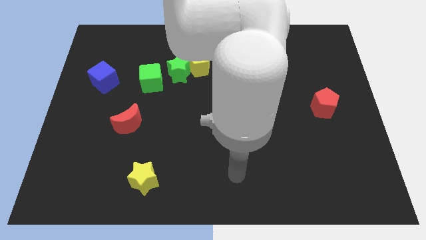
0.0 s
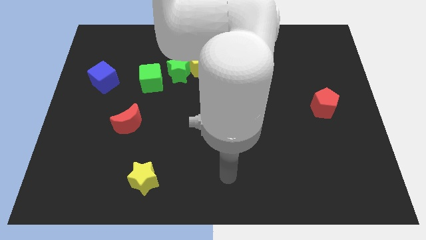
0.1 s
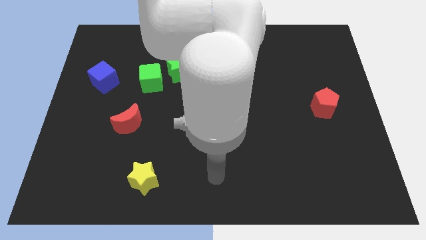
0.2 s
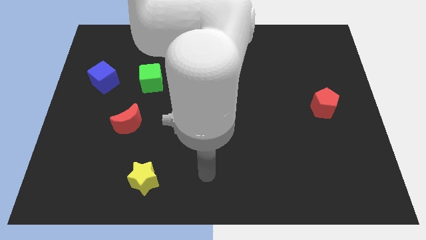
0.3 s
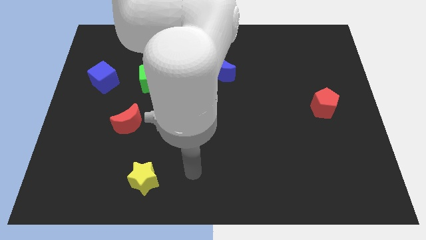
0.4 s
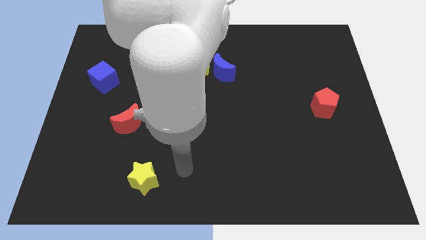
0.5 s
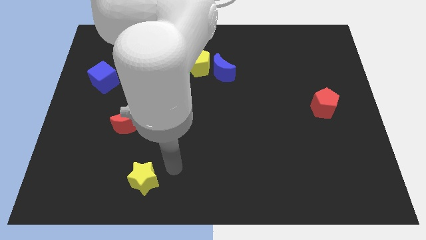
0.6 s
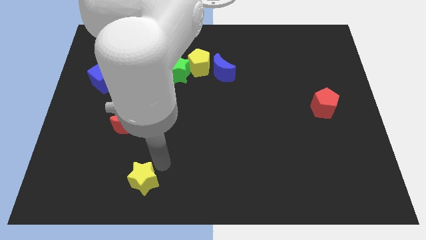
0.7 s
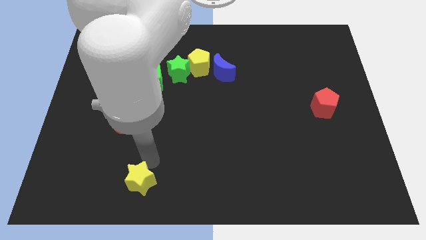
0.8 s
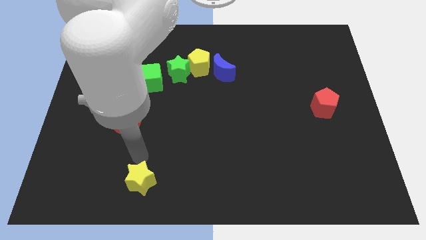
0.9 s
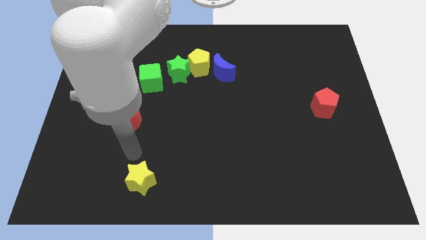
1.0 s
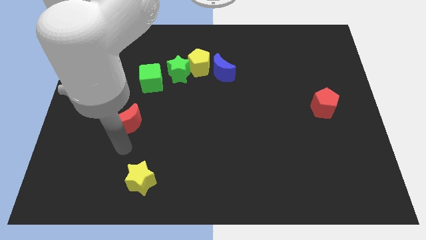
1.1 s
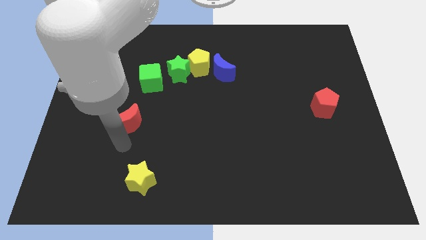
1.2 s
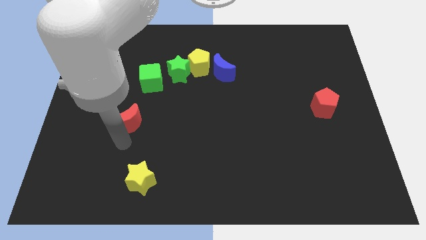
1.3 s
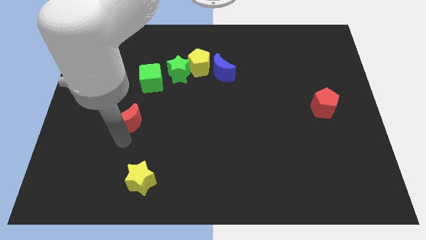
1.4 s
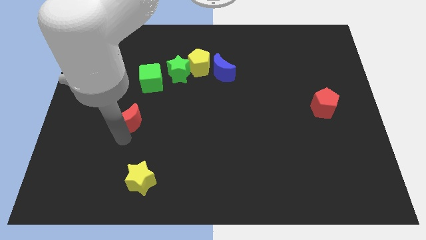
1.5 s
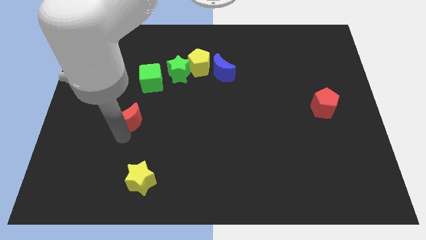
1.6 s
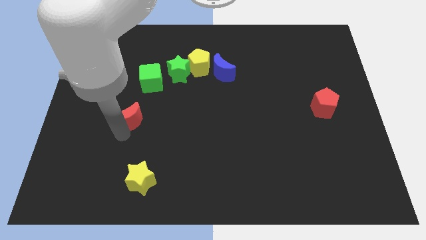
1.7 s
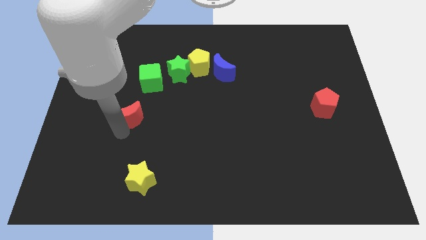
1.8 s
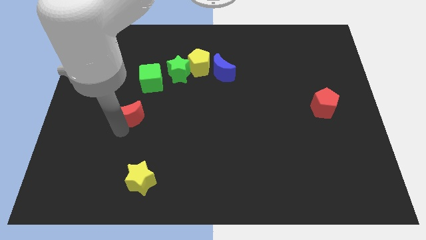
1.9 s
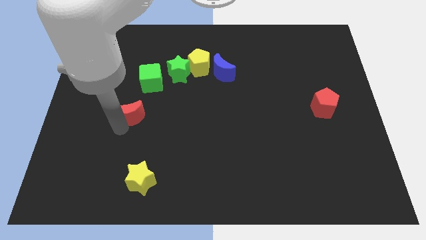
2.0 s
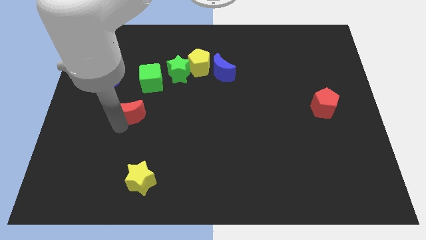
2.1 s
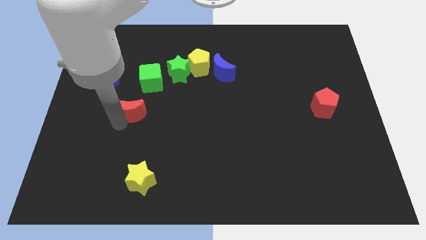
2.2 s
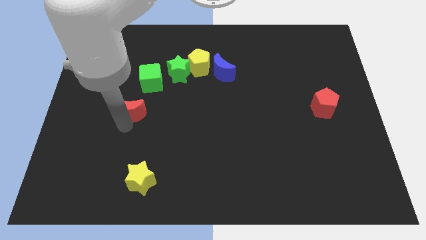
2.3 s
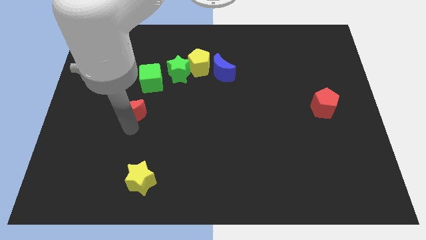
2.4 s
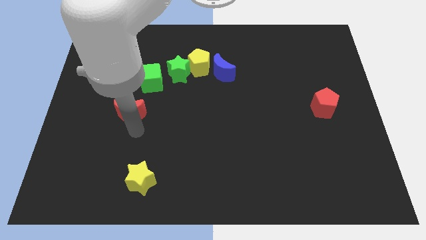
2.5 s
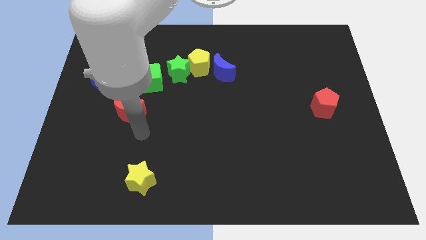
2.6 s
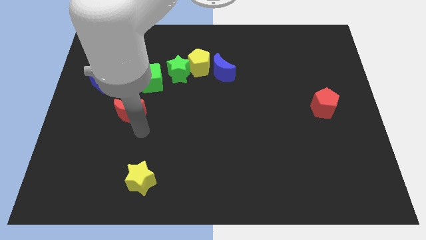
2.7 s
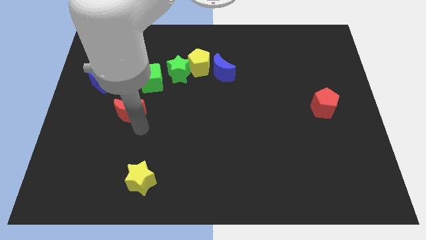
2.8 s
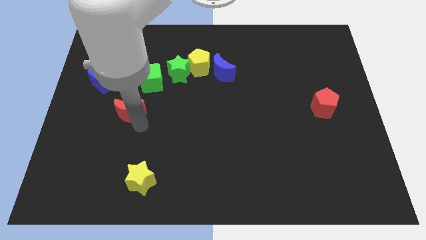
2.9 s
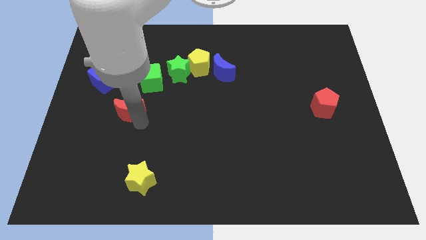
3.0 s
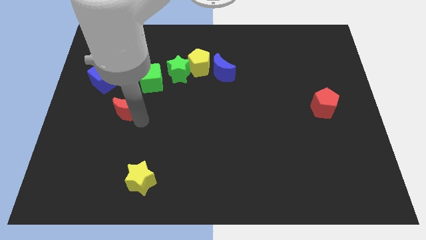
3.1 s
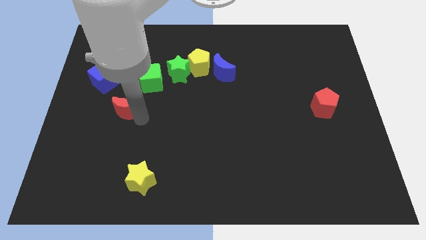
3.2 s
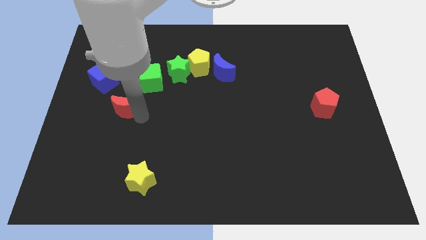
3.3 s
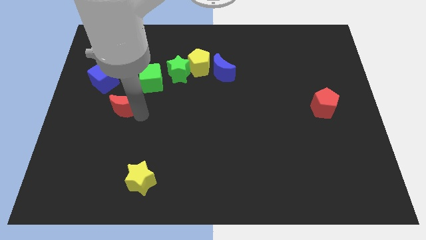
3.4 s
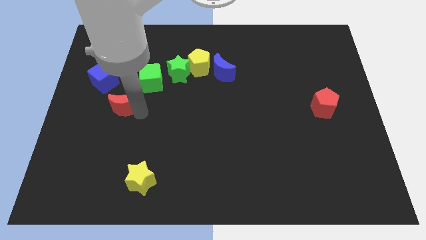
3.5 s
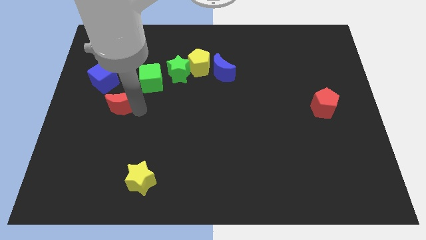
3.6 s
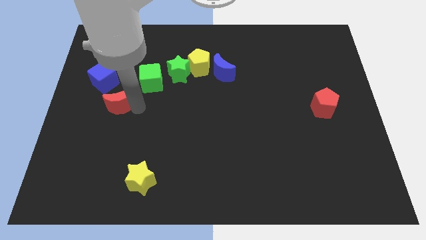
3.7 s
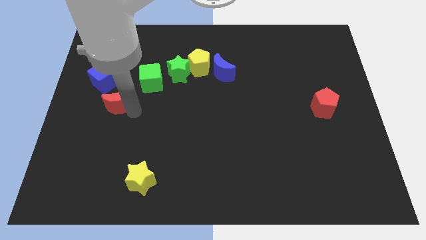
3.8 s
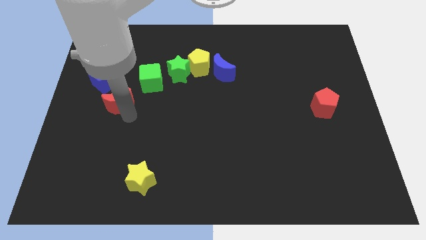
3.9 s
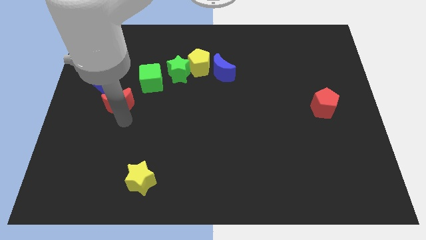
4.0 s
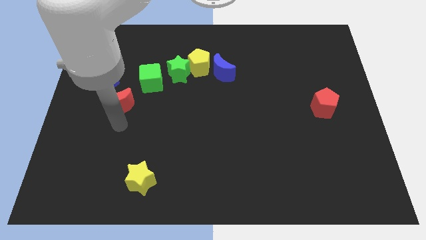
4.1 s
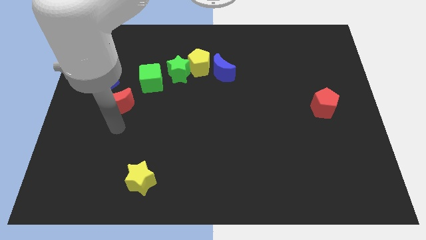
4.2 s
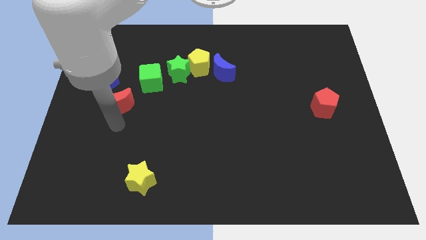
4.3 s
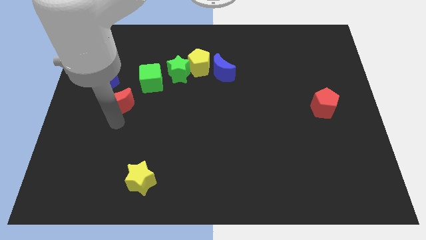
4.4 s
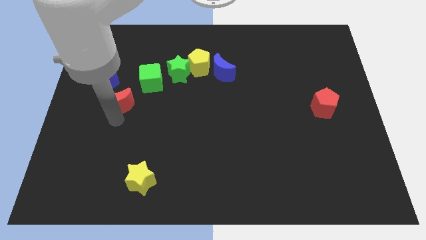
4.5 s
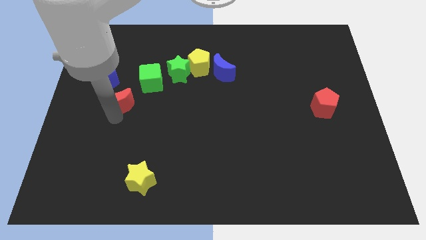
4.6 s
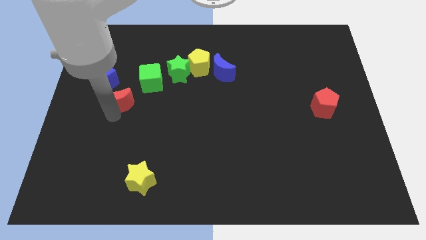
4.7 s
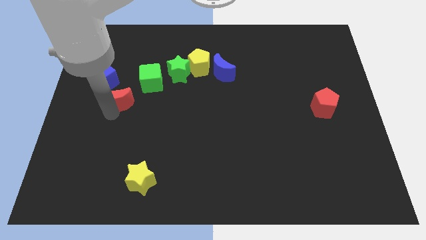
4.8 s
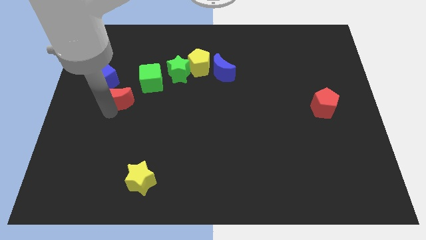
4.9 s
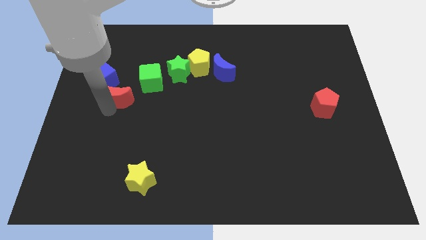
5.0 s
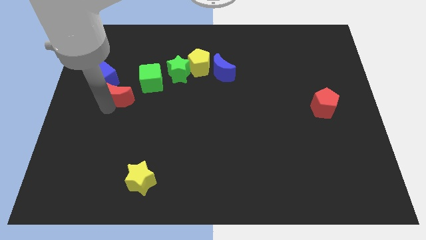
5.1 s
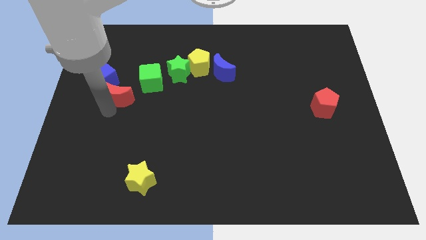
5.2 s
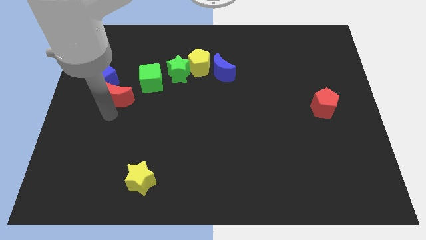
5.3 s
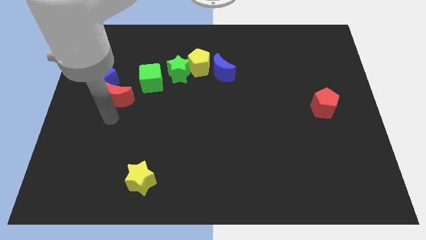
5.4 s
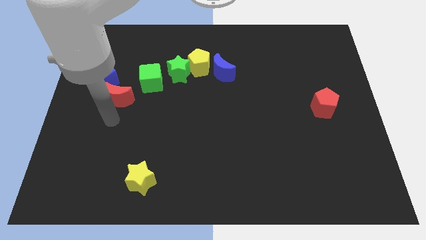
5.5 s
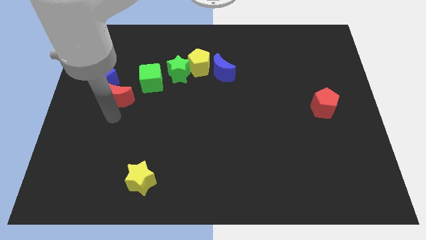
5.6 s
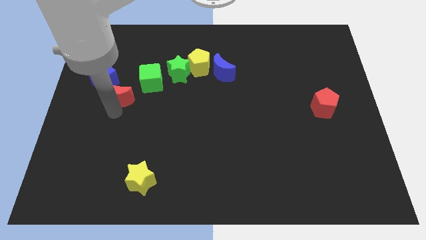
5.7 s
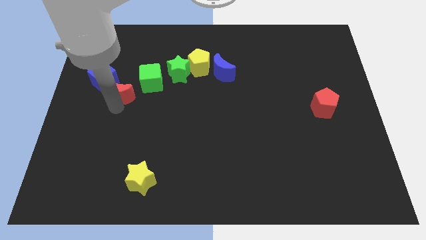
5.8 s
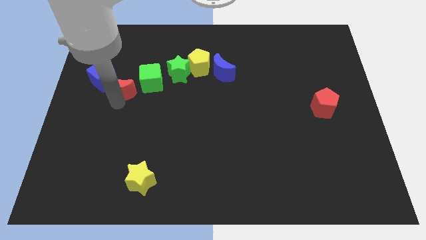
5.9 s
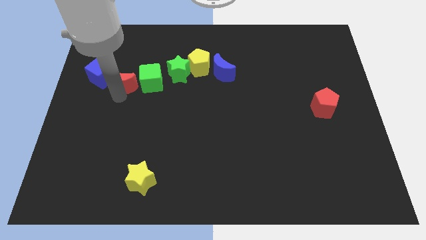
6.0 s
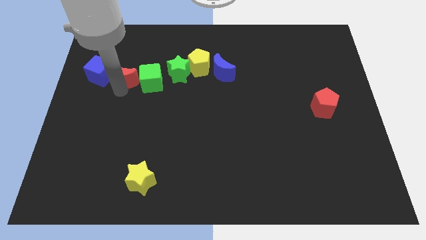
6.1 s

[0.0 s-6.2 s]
move the red moon to the top left side of the green cube
